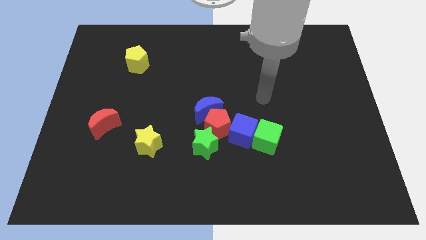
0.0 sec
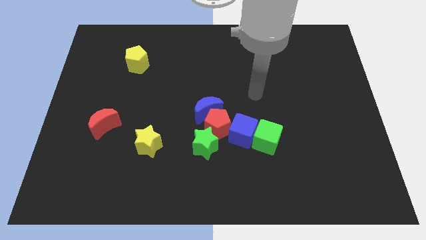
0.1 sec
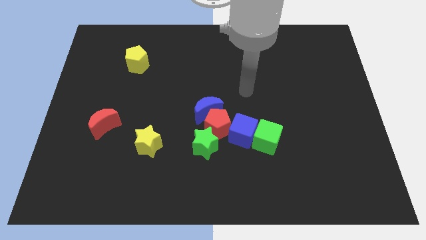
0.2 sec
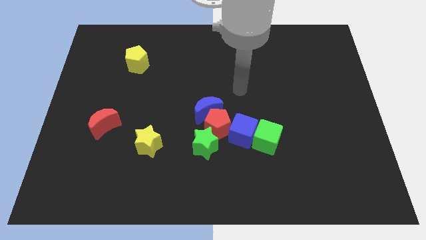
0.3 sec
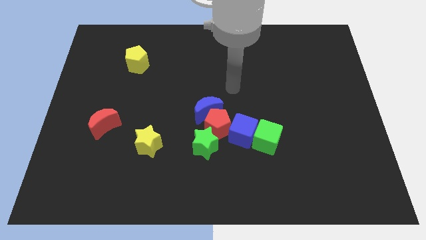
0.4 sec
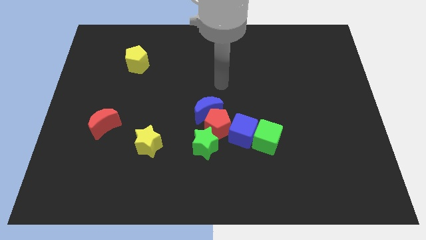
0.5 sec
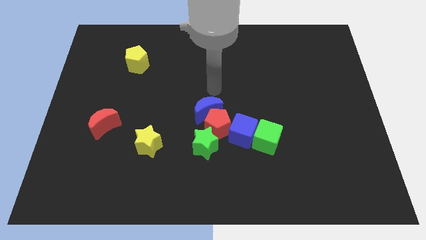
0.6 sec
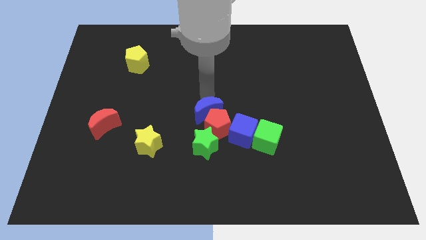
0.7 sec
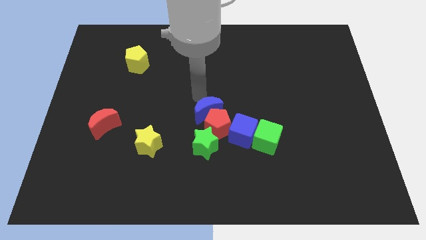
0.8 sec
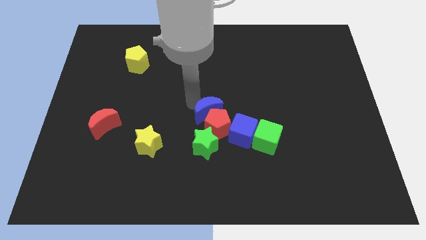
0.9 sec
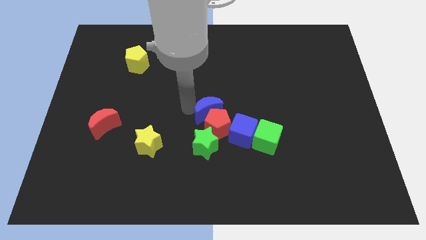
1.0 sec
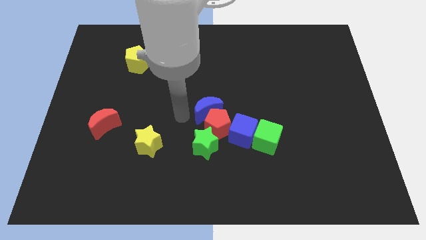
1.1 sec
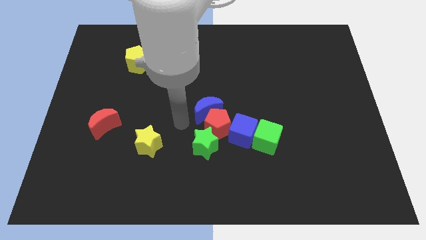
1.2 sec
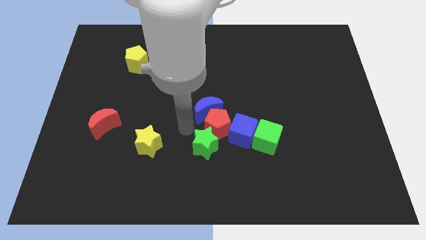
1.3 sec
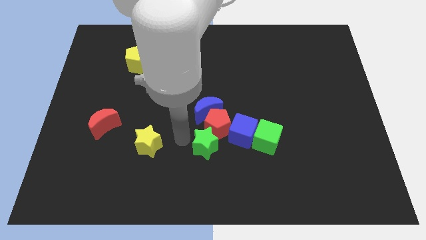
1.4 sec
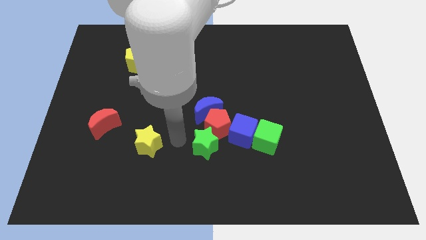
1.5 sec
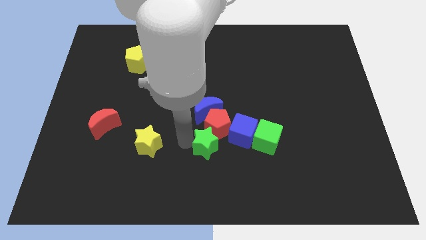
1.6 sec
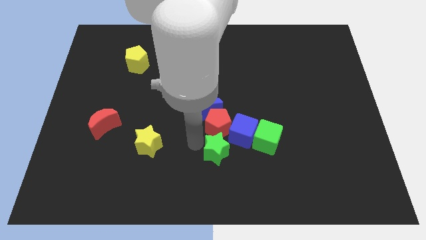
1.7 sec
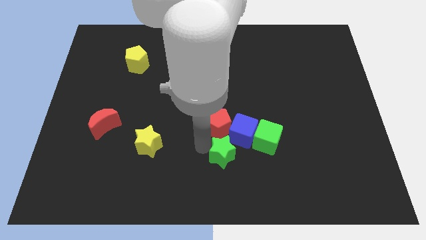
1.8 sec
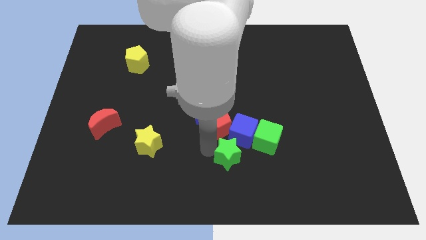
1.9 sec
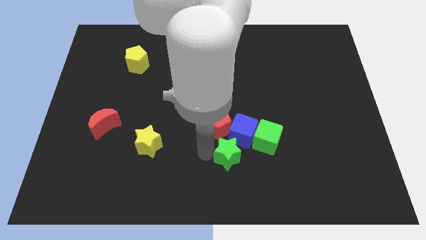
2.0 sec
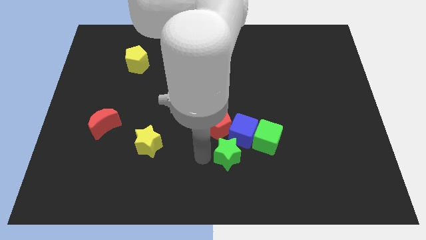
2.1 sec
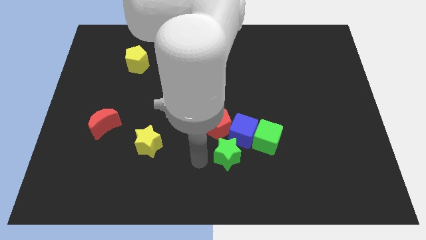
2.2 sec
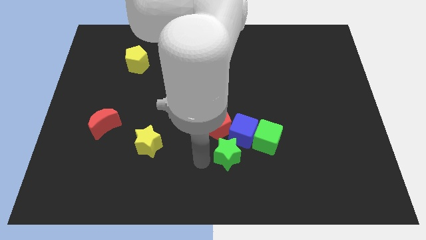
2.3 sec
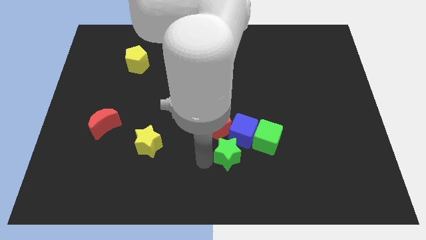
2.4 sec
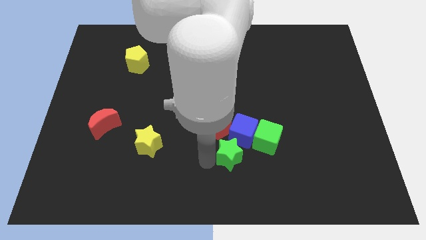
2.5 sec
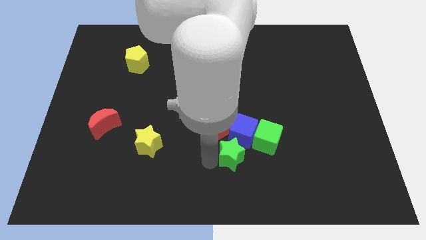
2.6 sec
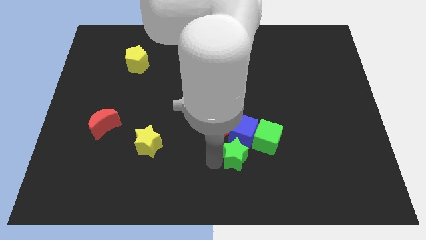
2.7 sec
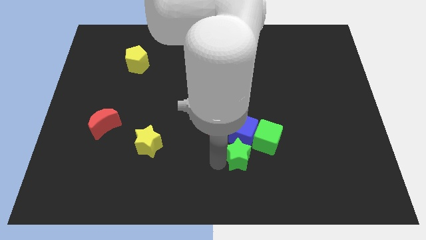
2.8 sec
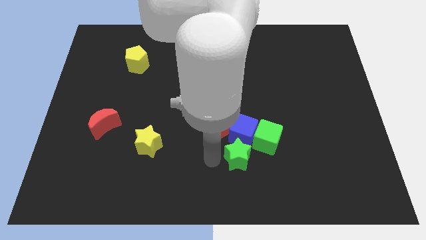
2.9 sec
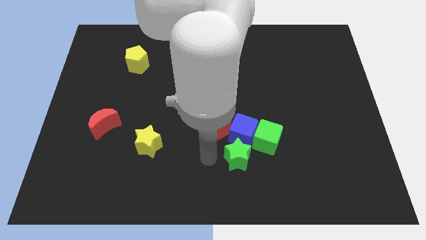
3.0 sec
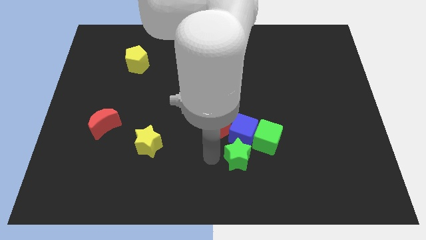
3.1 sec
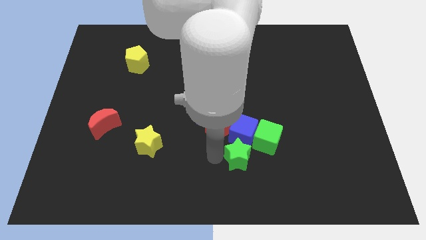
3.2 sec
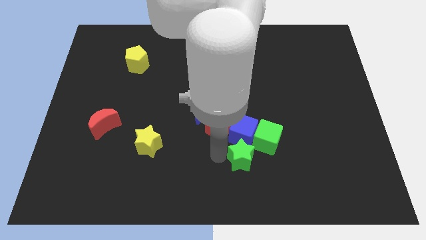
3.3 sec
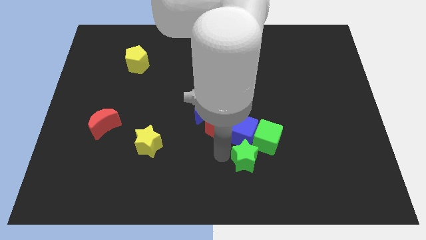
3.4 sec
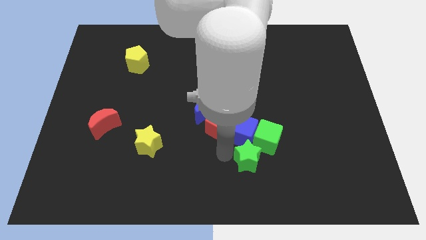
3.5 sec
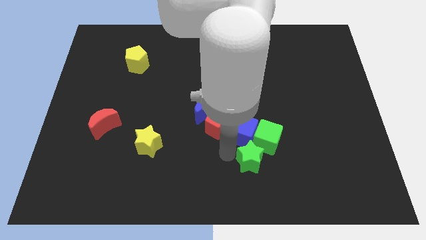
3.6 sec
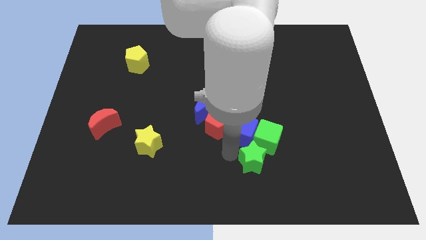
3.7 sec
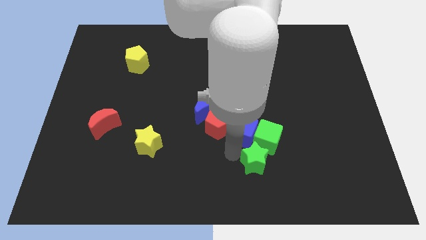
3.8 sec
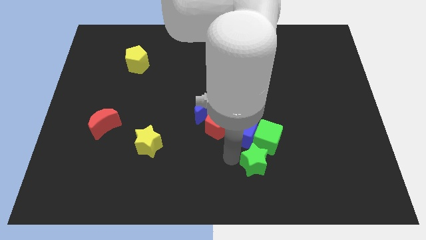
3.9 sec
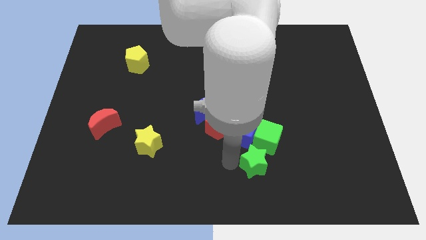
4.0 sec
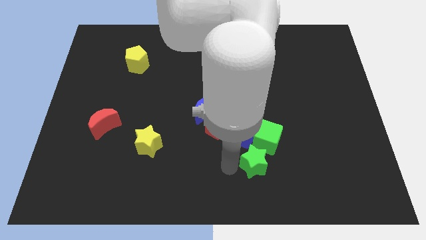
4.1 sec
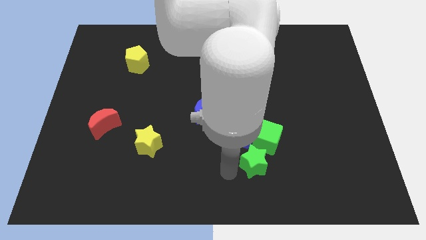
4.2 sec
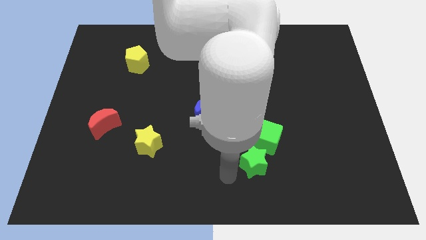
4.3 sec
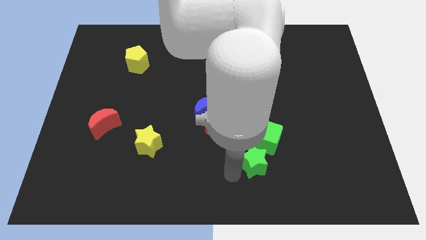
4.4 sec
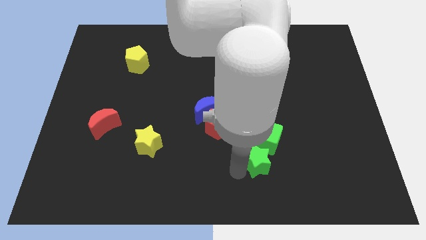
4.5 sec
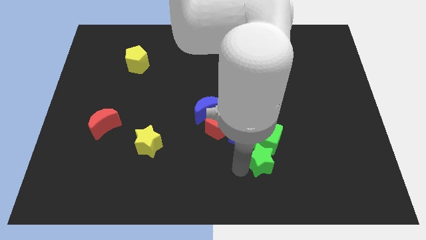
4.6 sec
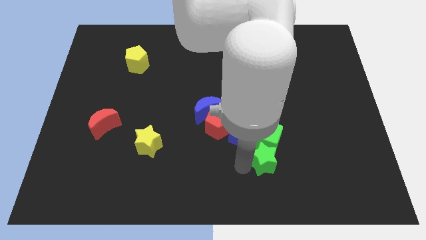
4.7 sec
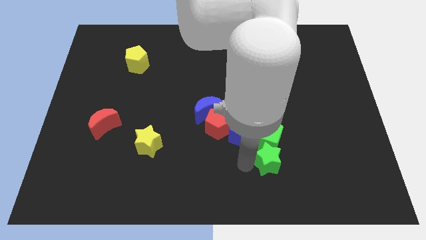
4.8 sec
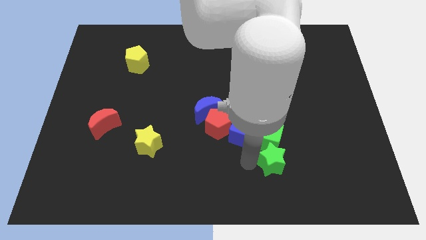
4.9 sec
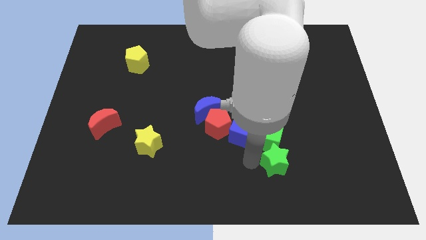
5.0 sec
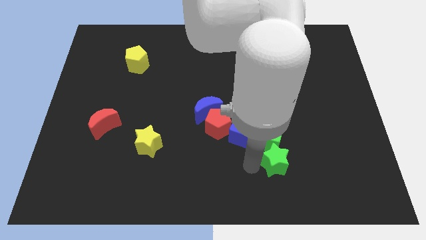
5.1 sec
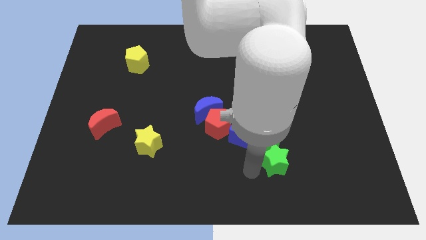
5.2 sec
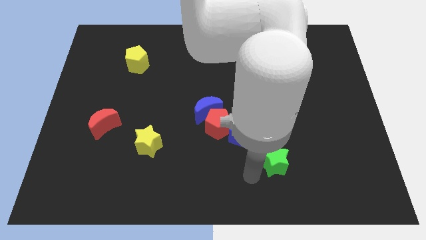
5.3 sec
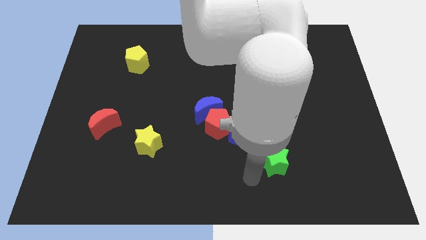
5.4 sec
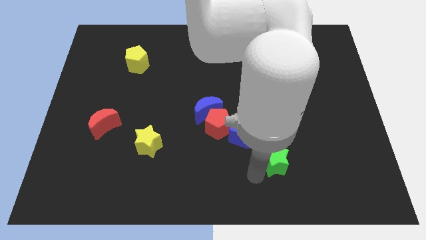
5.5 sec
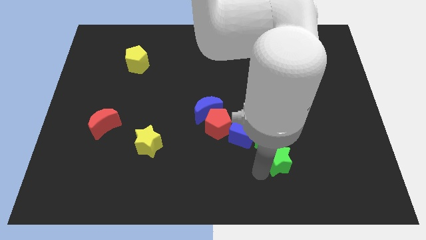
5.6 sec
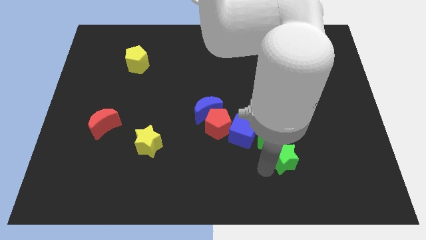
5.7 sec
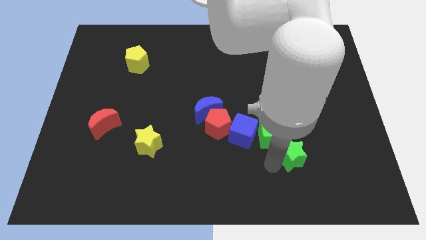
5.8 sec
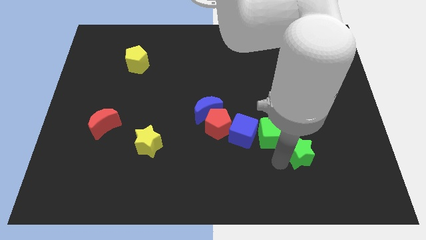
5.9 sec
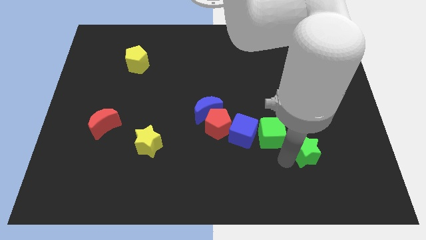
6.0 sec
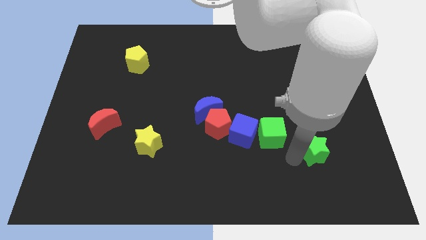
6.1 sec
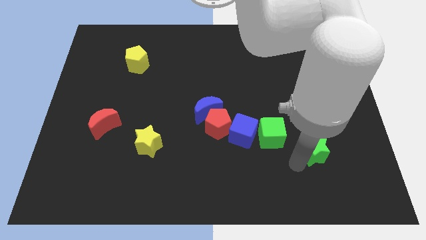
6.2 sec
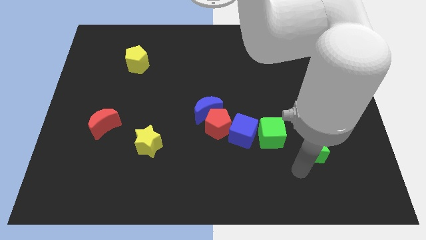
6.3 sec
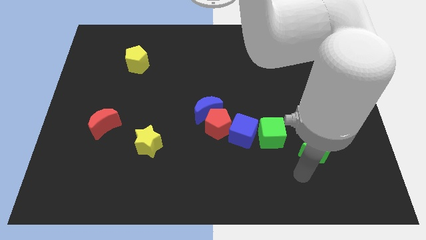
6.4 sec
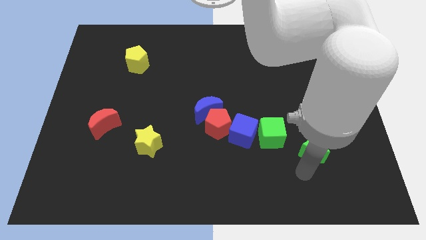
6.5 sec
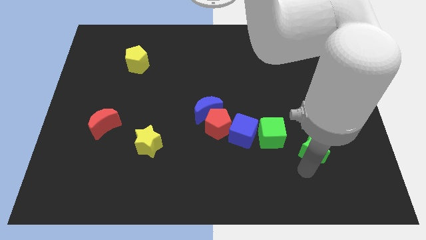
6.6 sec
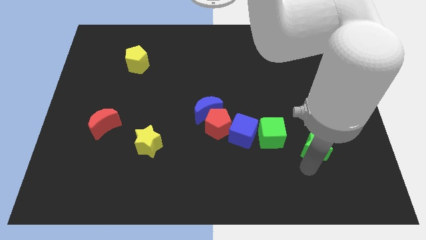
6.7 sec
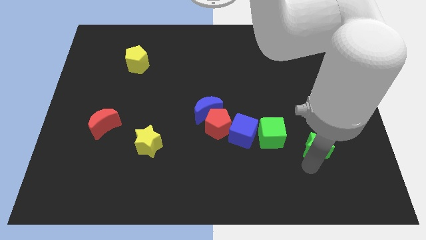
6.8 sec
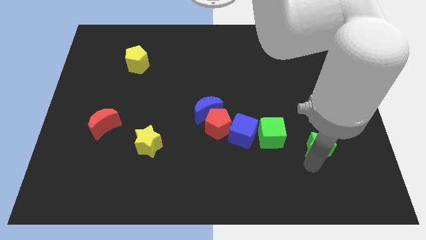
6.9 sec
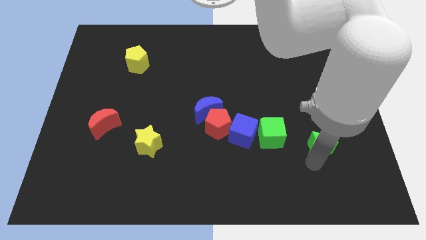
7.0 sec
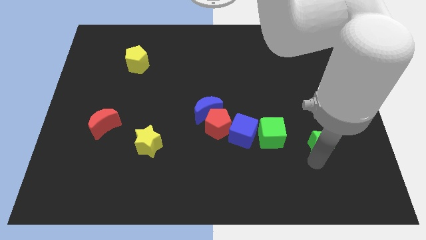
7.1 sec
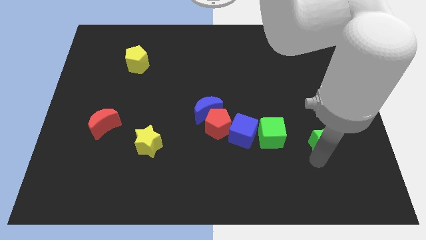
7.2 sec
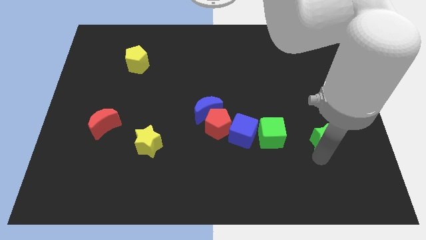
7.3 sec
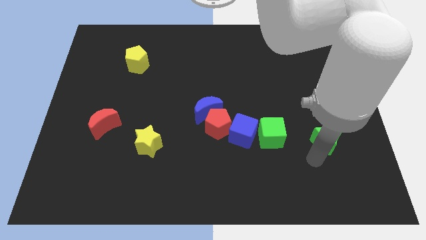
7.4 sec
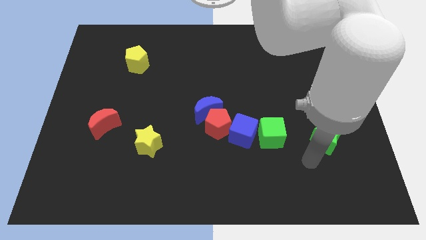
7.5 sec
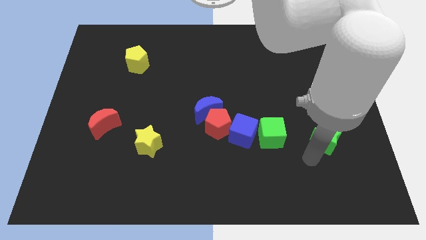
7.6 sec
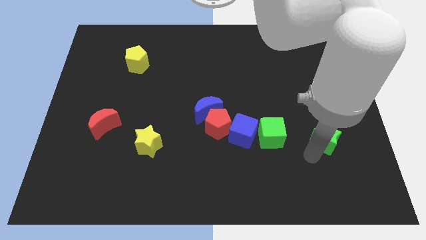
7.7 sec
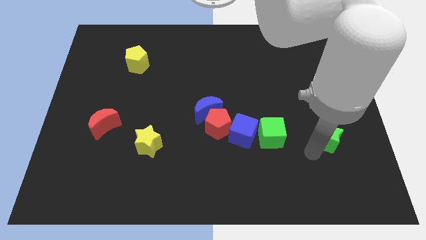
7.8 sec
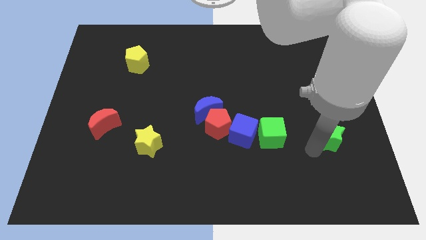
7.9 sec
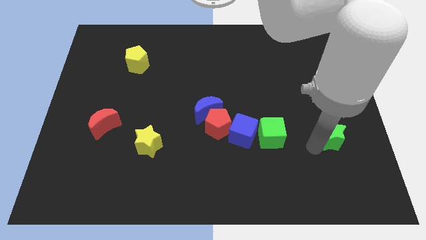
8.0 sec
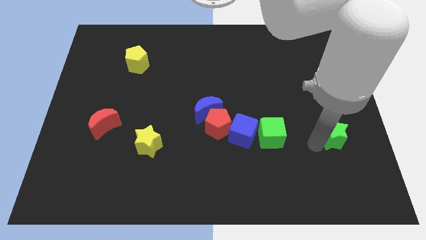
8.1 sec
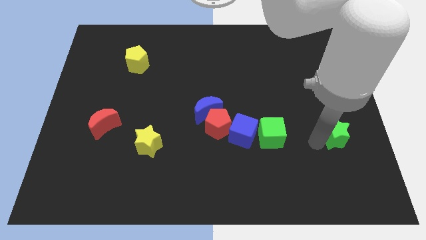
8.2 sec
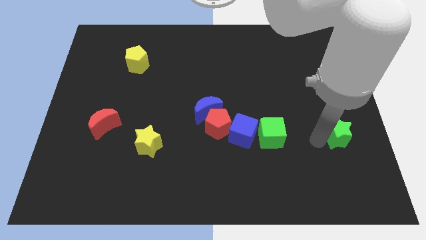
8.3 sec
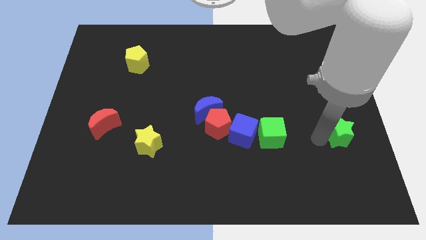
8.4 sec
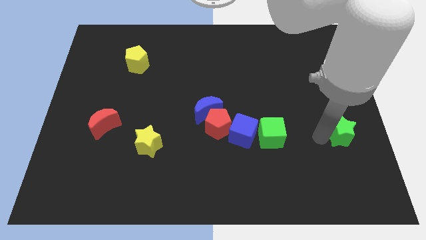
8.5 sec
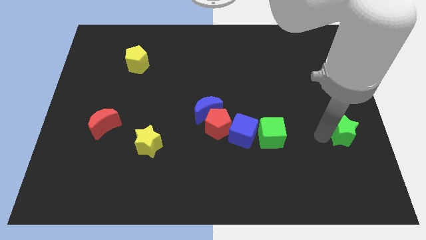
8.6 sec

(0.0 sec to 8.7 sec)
put the green star to the center right
